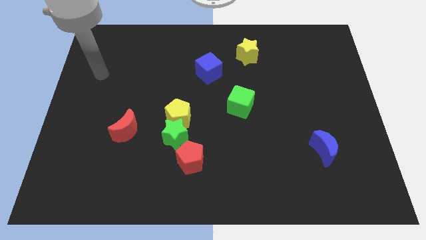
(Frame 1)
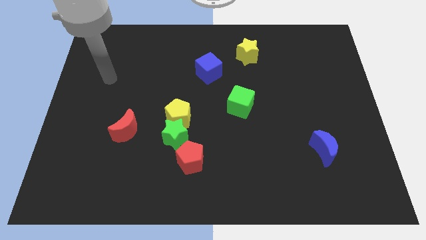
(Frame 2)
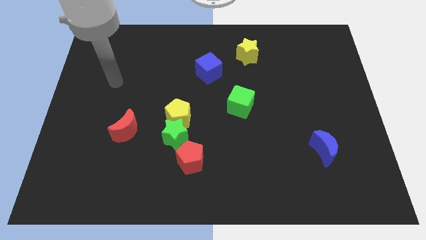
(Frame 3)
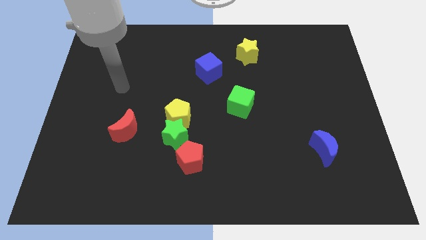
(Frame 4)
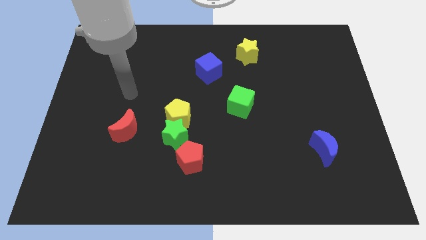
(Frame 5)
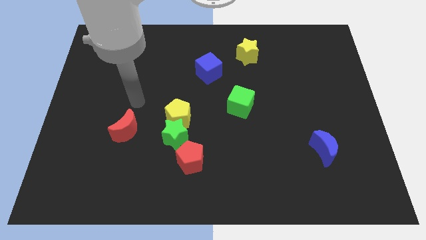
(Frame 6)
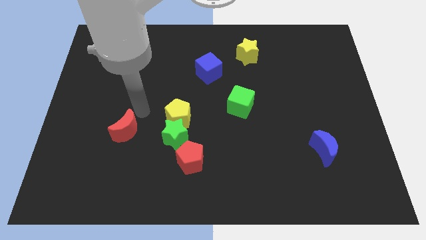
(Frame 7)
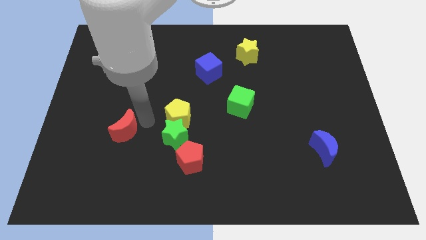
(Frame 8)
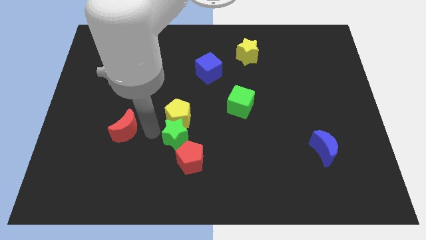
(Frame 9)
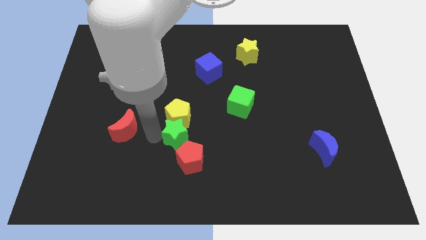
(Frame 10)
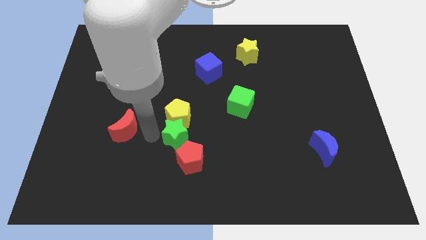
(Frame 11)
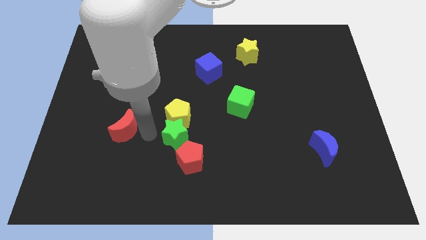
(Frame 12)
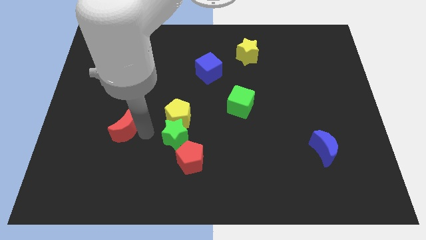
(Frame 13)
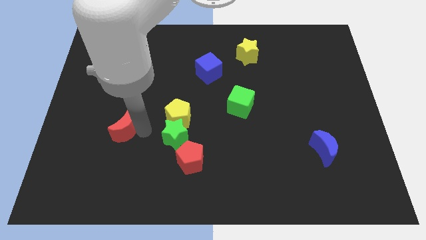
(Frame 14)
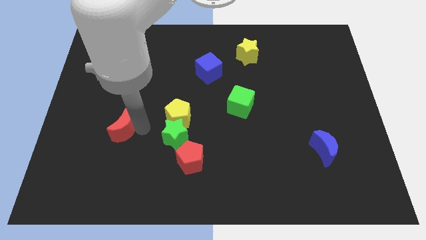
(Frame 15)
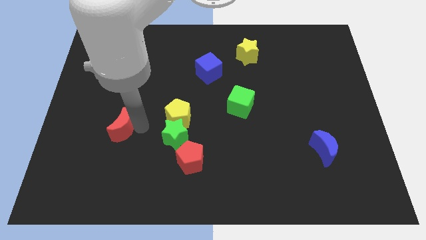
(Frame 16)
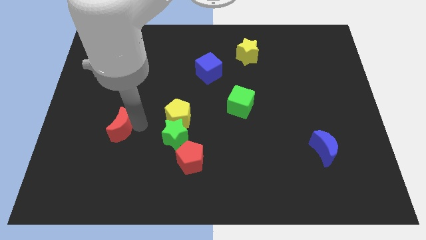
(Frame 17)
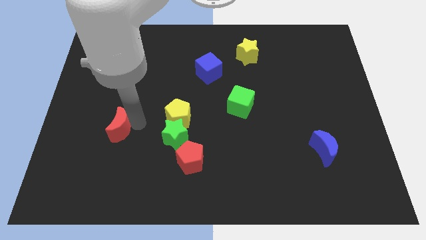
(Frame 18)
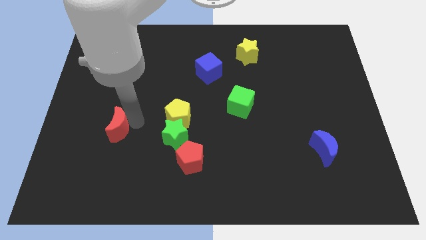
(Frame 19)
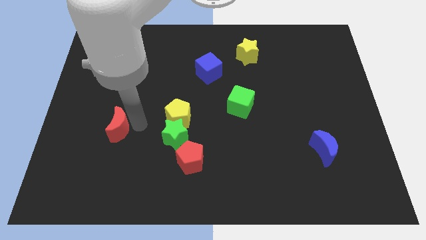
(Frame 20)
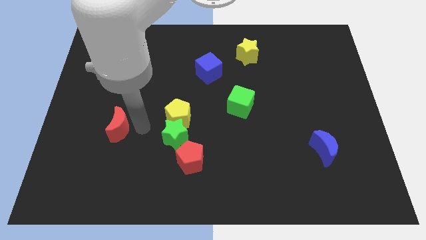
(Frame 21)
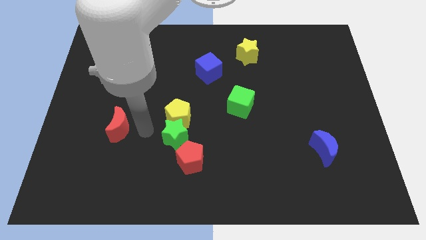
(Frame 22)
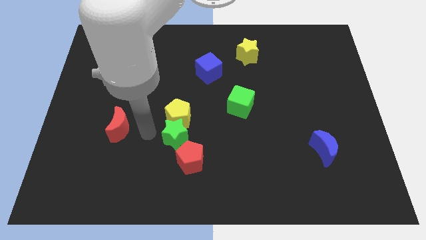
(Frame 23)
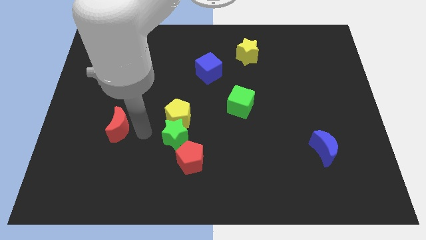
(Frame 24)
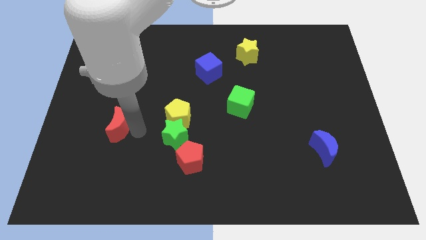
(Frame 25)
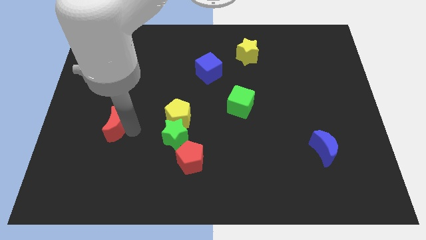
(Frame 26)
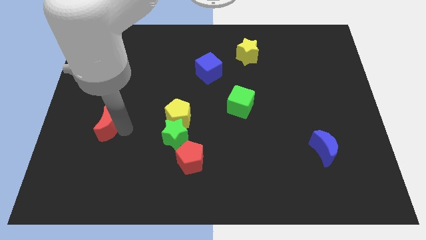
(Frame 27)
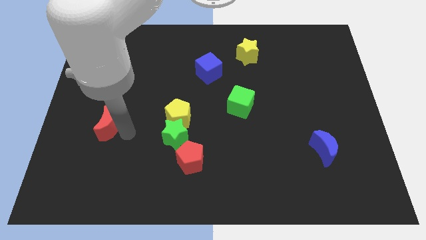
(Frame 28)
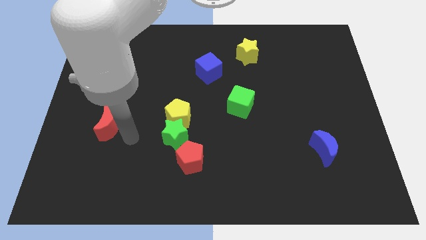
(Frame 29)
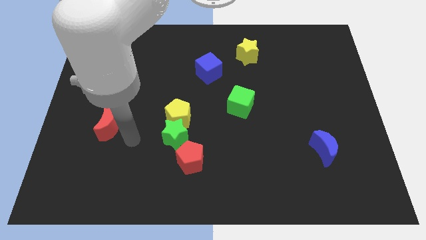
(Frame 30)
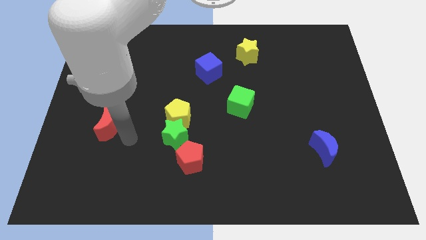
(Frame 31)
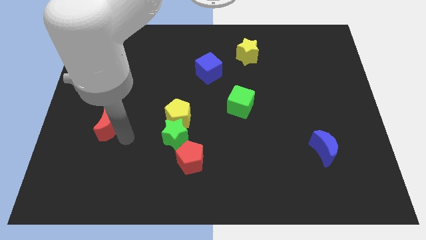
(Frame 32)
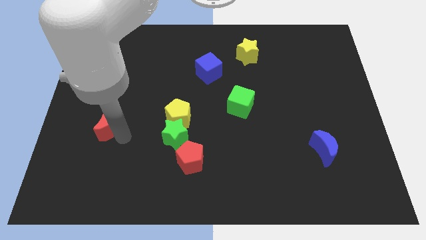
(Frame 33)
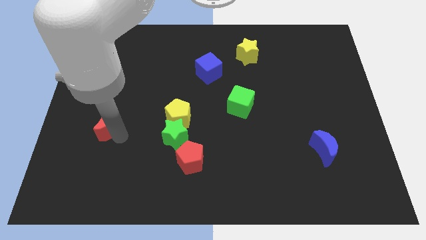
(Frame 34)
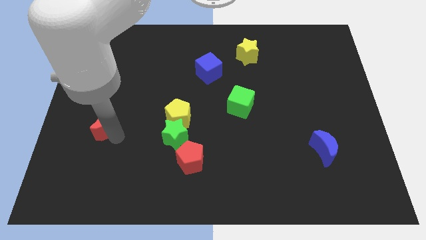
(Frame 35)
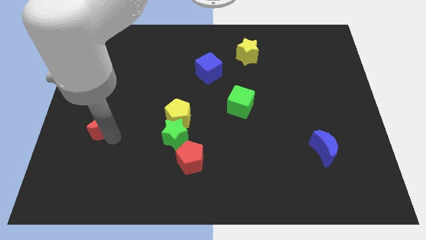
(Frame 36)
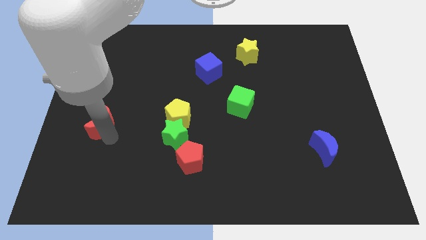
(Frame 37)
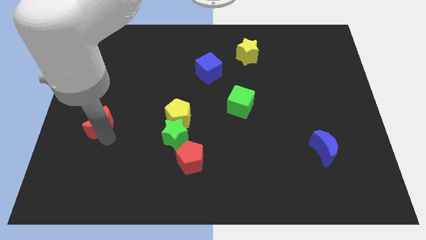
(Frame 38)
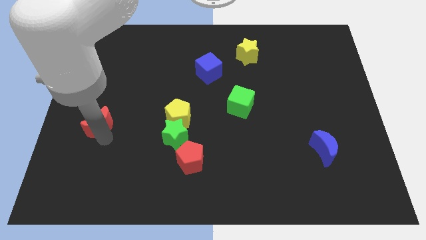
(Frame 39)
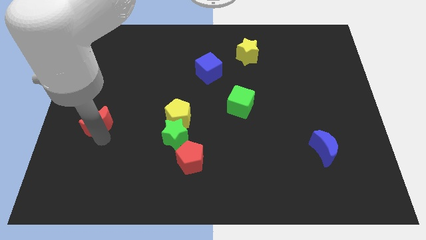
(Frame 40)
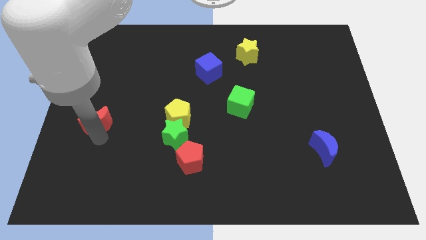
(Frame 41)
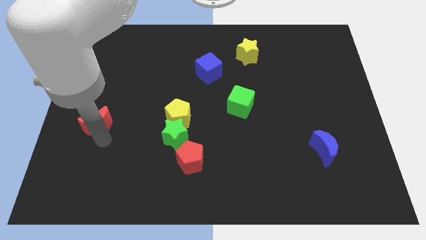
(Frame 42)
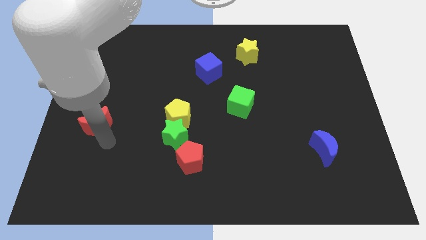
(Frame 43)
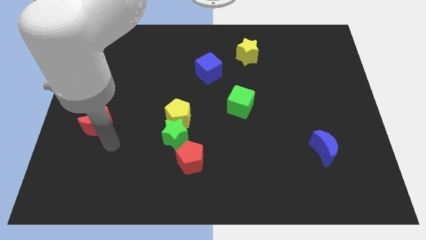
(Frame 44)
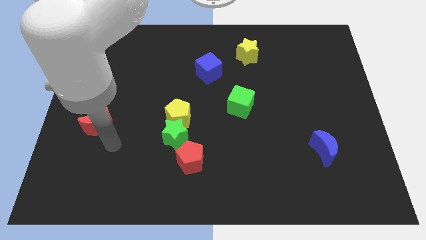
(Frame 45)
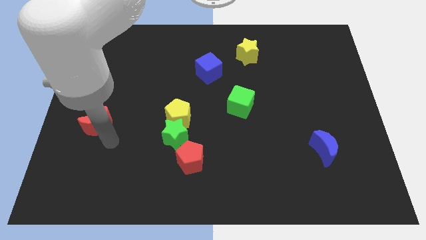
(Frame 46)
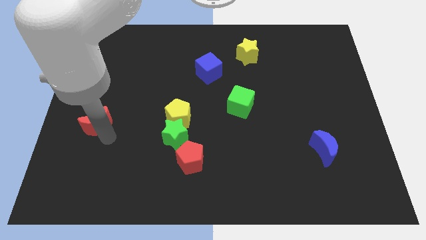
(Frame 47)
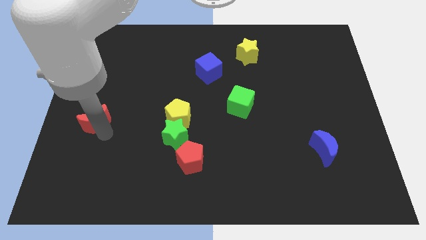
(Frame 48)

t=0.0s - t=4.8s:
move the red moon to the left side of the board

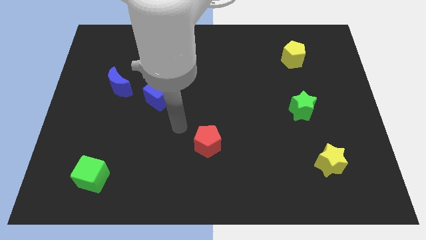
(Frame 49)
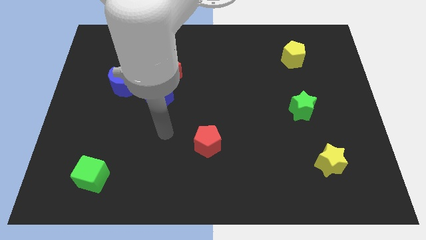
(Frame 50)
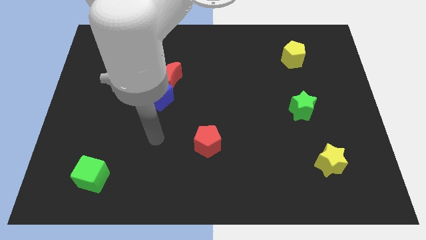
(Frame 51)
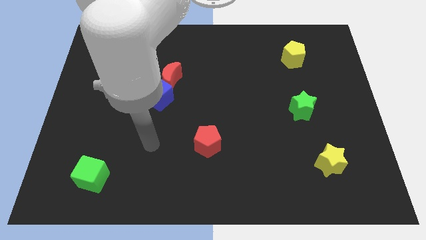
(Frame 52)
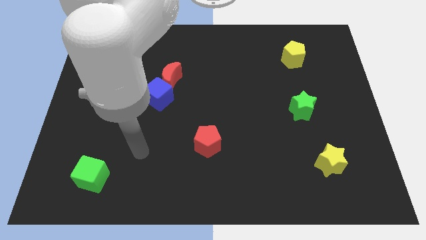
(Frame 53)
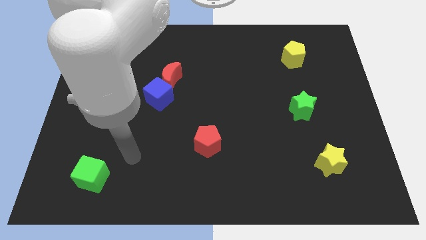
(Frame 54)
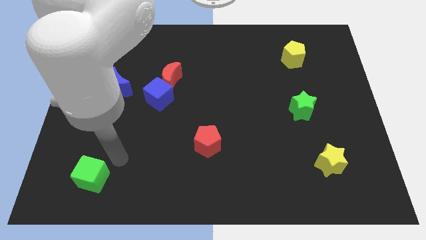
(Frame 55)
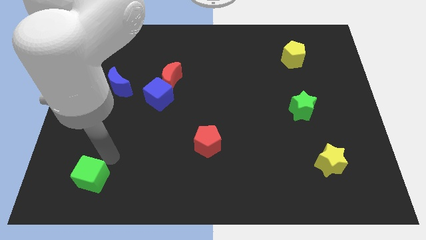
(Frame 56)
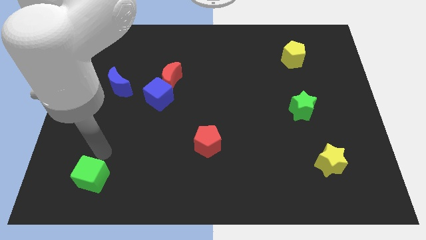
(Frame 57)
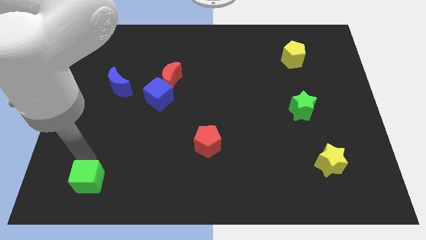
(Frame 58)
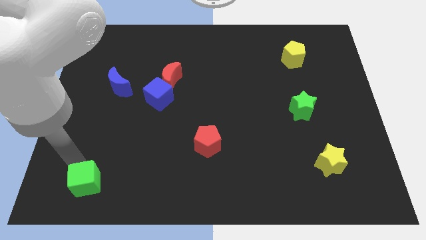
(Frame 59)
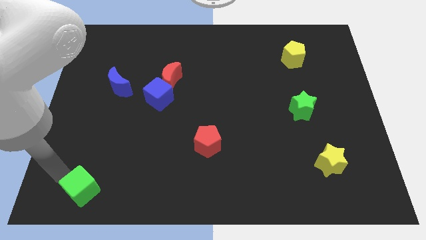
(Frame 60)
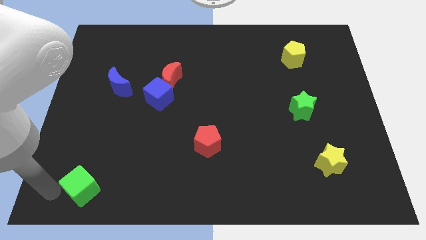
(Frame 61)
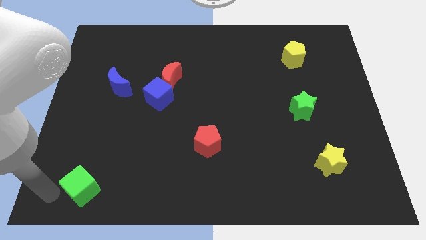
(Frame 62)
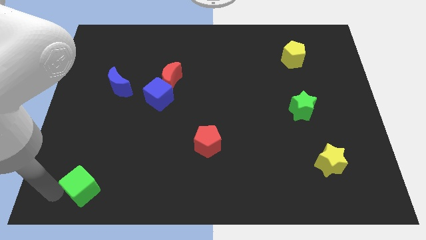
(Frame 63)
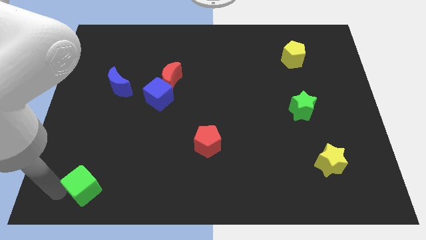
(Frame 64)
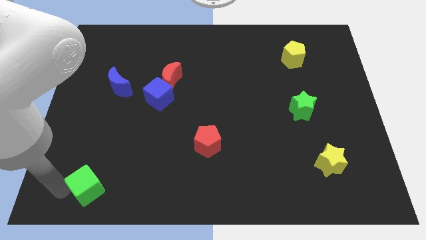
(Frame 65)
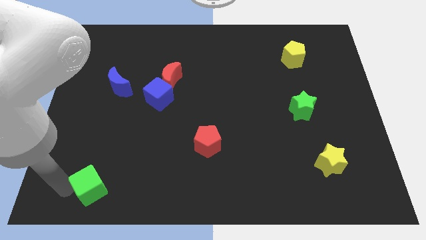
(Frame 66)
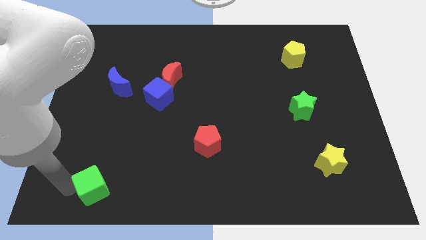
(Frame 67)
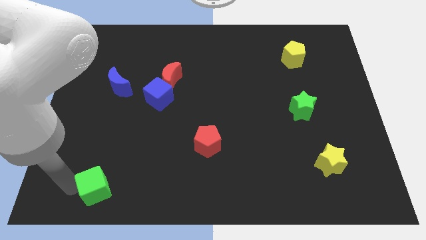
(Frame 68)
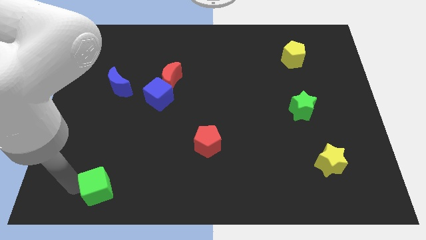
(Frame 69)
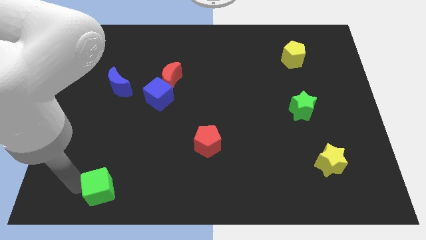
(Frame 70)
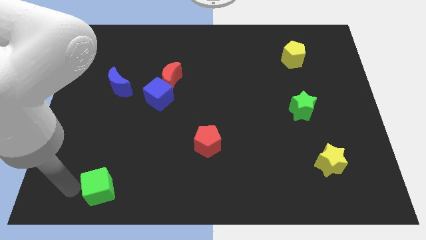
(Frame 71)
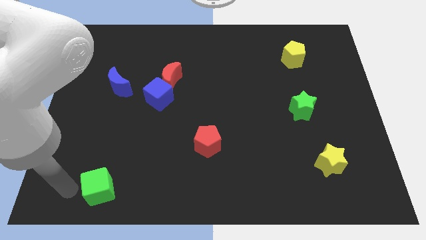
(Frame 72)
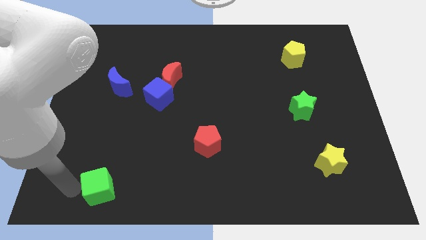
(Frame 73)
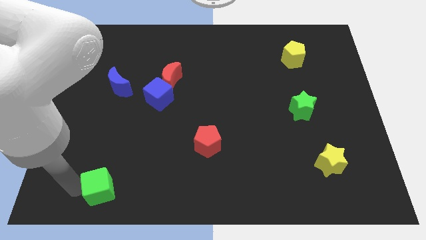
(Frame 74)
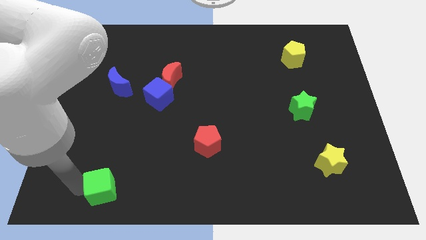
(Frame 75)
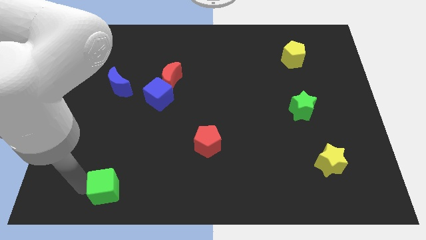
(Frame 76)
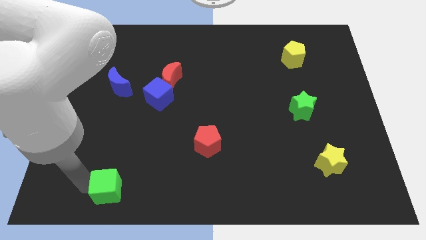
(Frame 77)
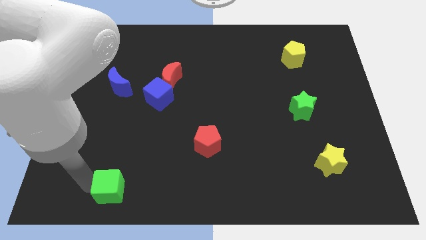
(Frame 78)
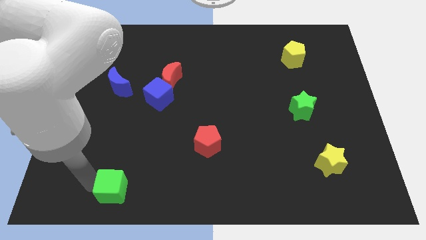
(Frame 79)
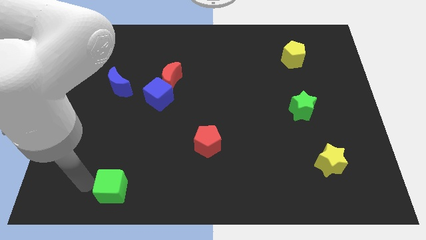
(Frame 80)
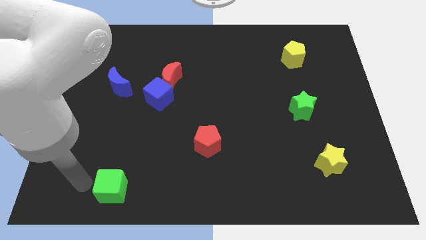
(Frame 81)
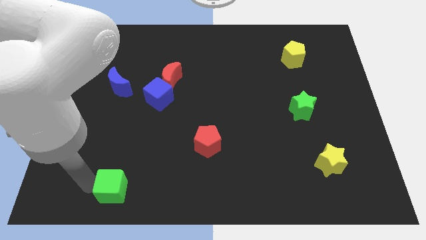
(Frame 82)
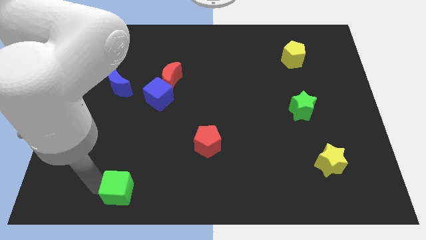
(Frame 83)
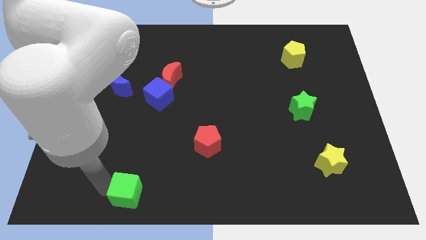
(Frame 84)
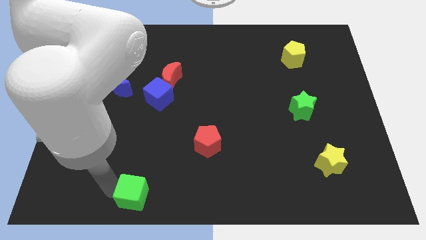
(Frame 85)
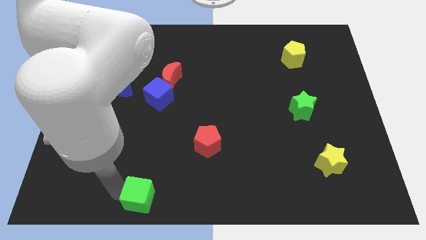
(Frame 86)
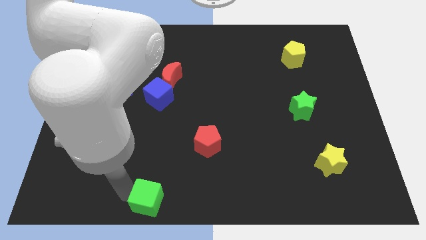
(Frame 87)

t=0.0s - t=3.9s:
move the green cube to the bottom side
